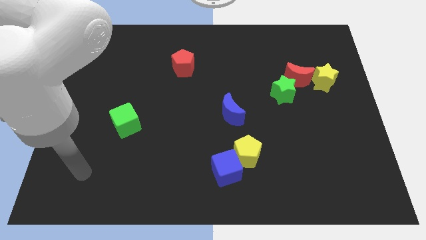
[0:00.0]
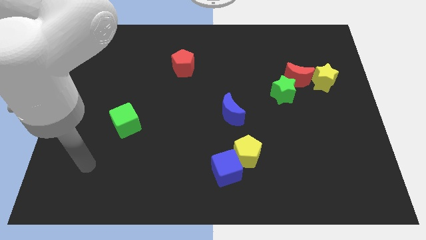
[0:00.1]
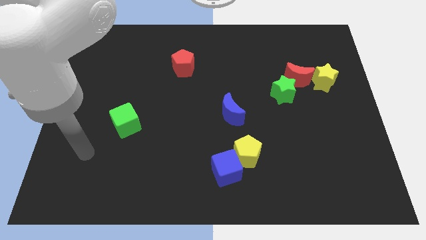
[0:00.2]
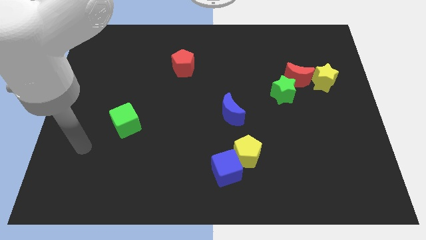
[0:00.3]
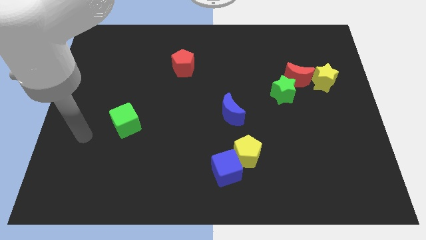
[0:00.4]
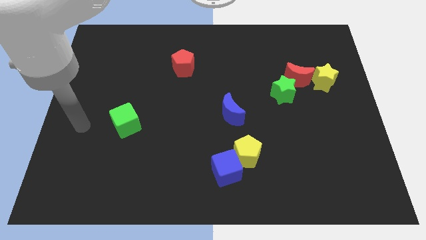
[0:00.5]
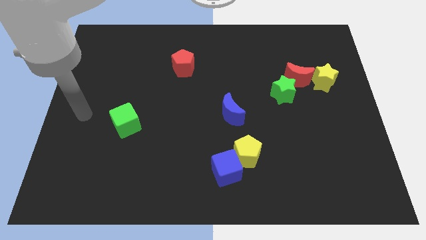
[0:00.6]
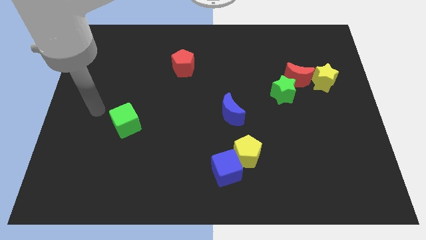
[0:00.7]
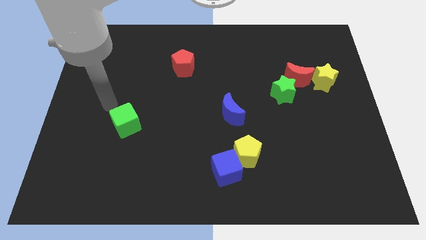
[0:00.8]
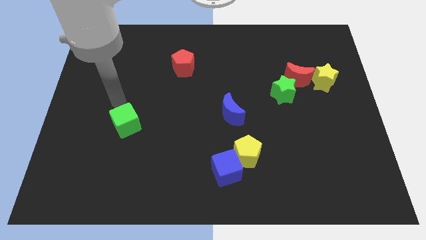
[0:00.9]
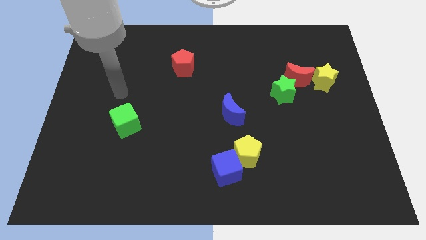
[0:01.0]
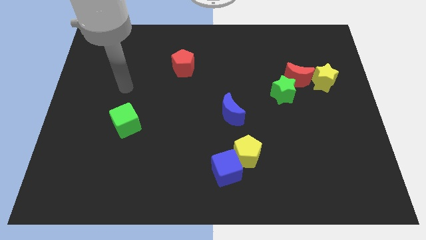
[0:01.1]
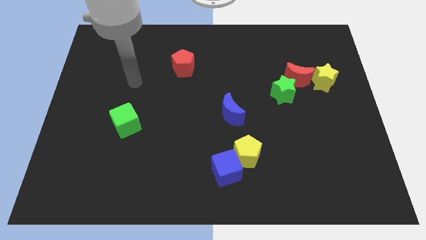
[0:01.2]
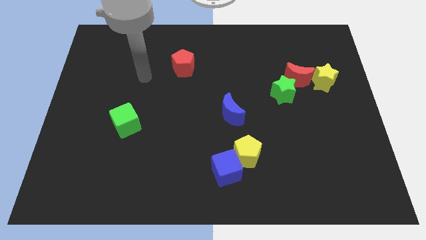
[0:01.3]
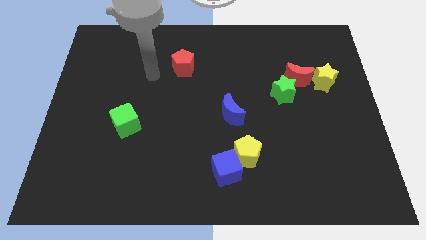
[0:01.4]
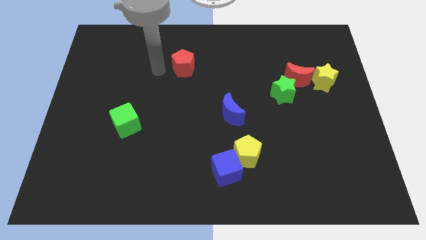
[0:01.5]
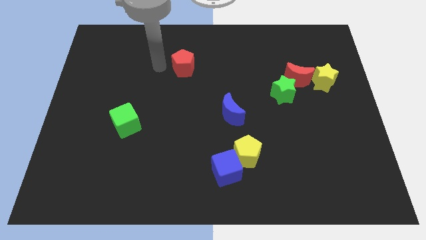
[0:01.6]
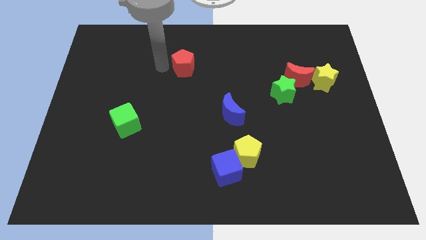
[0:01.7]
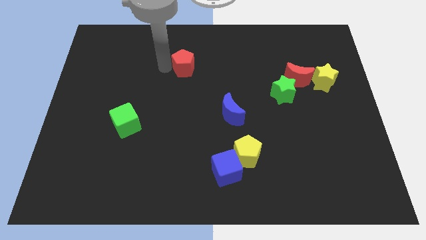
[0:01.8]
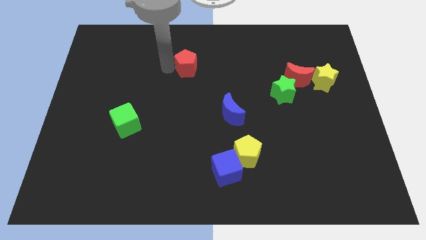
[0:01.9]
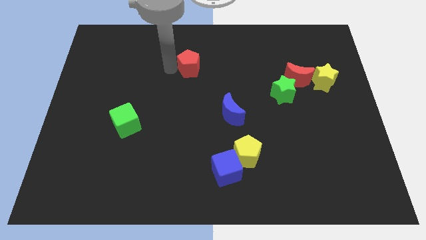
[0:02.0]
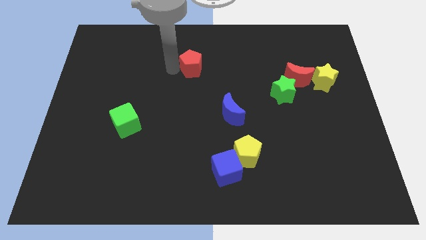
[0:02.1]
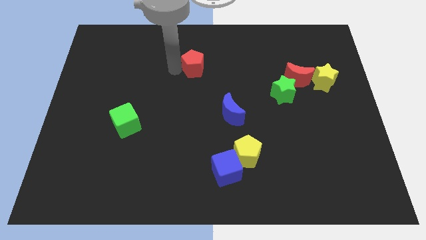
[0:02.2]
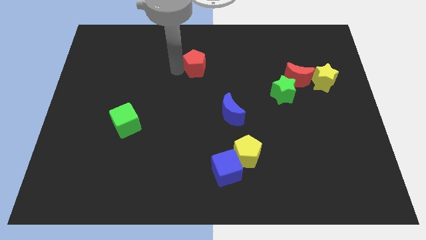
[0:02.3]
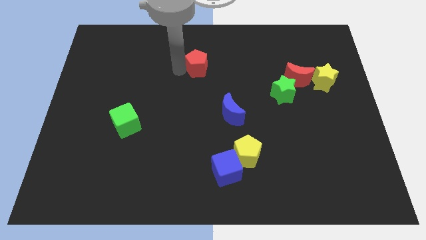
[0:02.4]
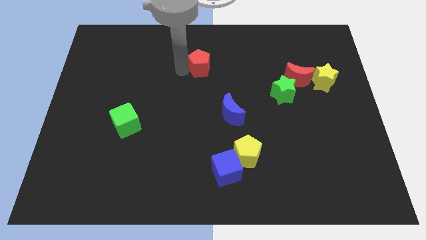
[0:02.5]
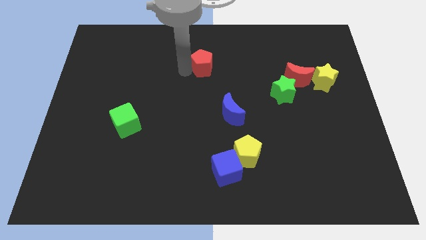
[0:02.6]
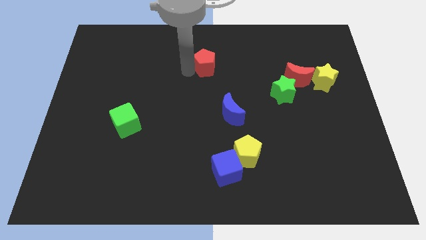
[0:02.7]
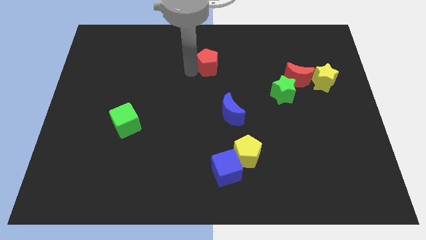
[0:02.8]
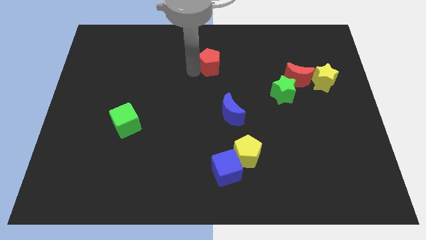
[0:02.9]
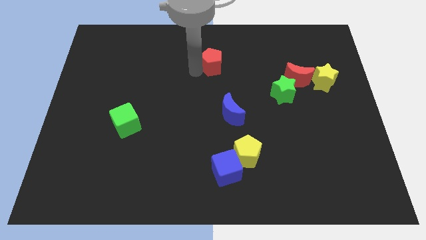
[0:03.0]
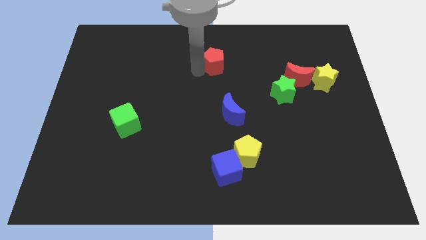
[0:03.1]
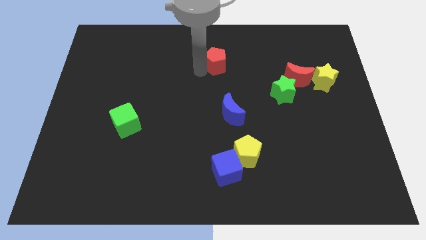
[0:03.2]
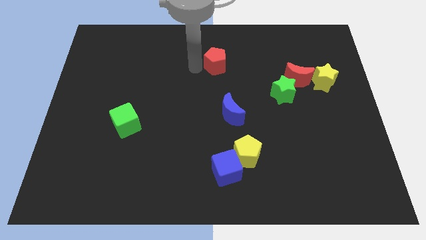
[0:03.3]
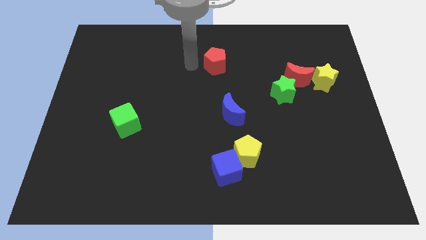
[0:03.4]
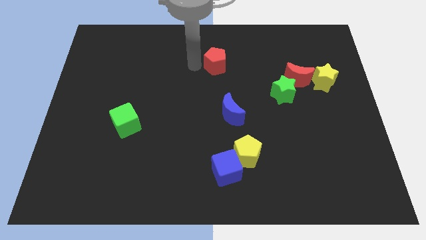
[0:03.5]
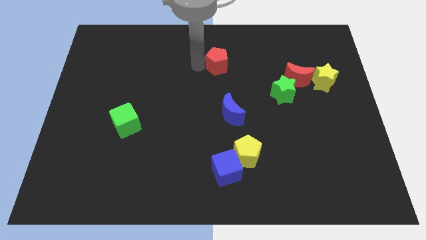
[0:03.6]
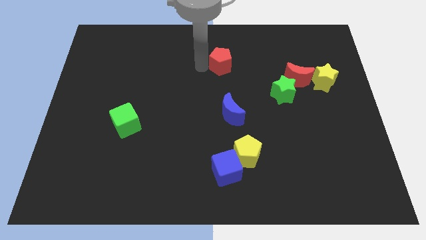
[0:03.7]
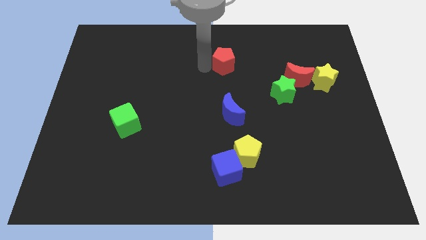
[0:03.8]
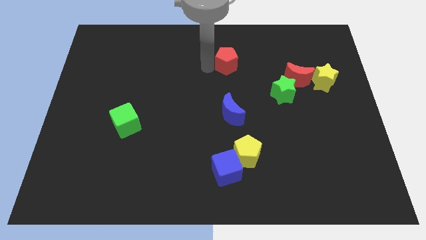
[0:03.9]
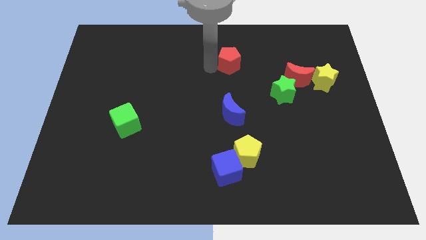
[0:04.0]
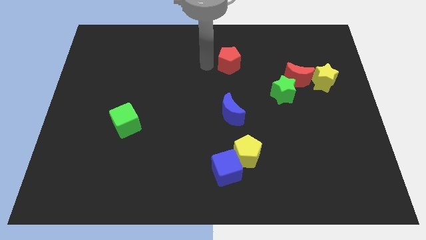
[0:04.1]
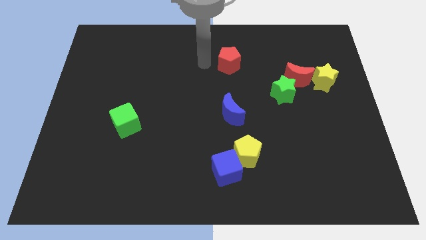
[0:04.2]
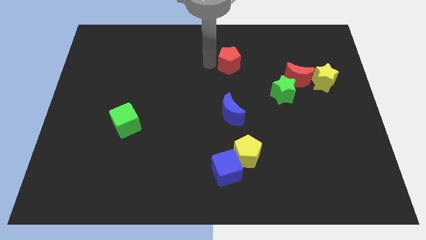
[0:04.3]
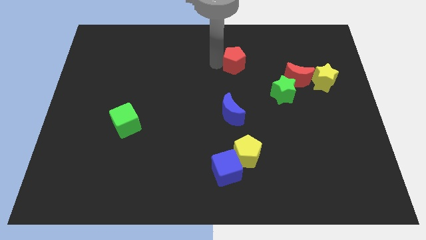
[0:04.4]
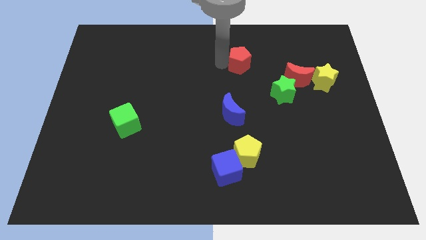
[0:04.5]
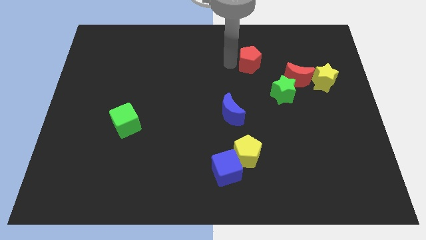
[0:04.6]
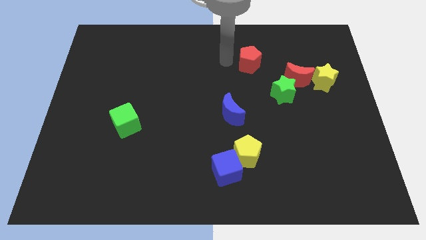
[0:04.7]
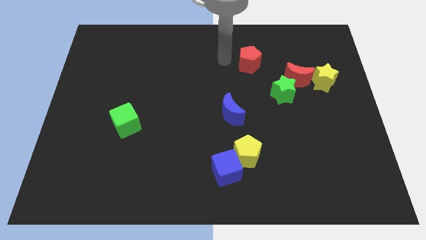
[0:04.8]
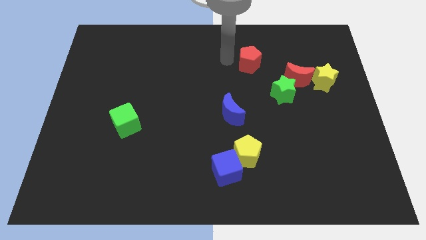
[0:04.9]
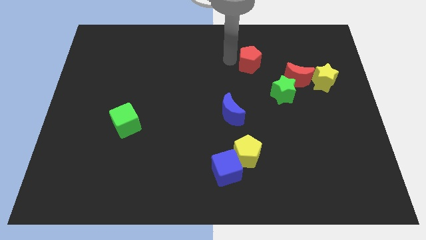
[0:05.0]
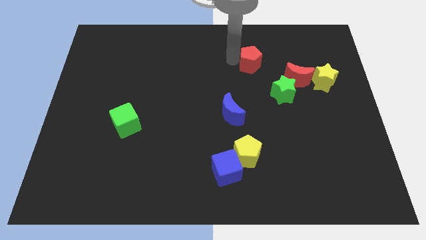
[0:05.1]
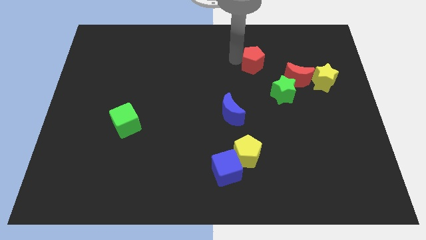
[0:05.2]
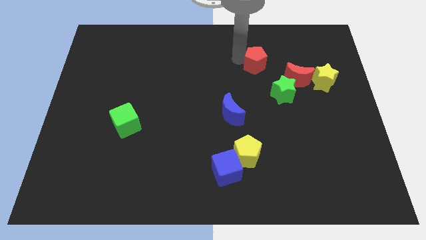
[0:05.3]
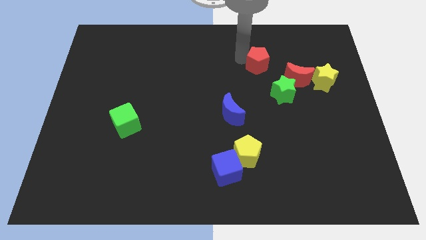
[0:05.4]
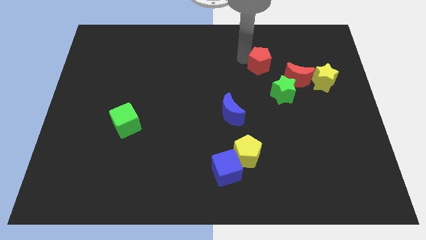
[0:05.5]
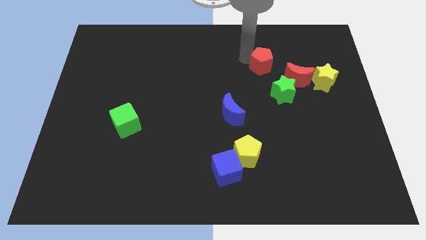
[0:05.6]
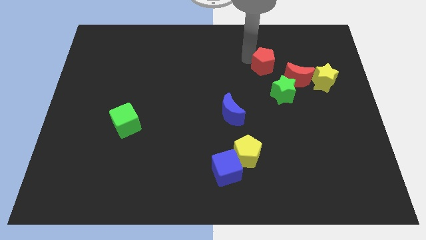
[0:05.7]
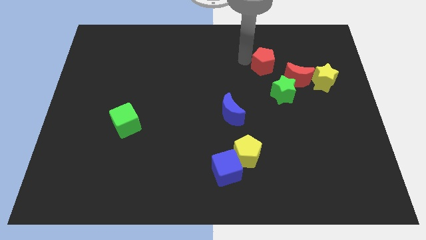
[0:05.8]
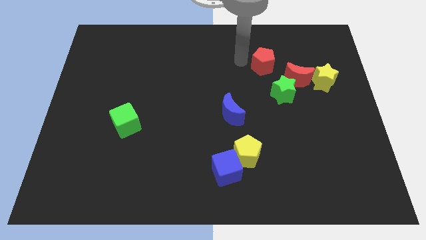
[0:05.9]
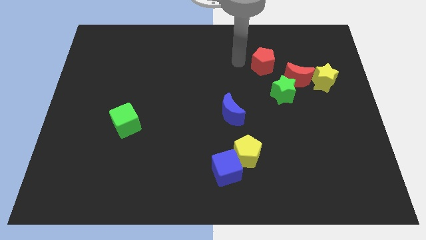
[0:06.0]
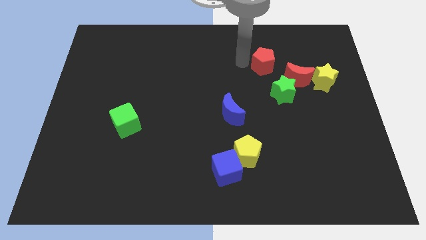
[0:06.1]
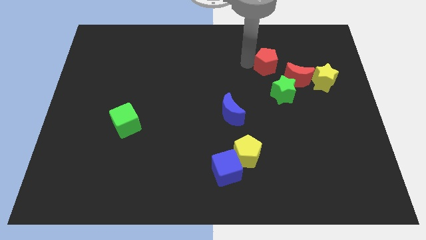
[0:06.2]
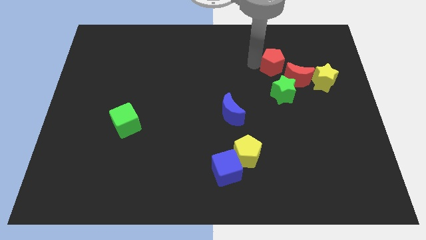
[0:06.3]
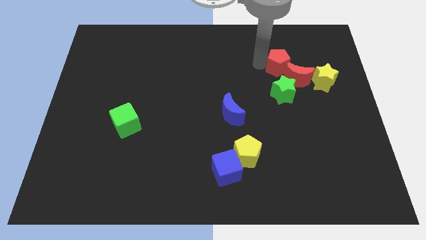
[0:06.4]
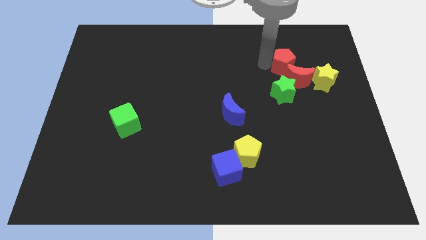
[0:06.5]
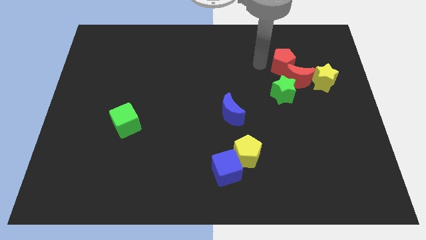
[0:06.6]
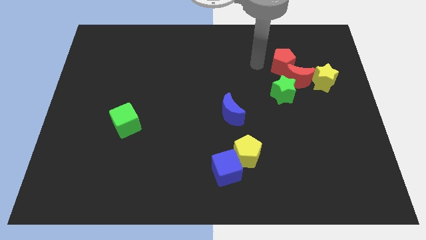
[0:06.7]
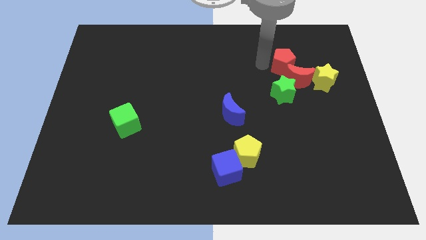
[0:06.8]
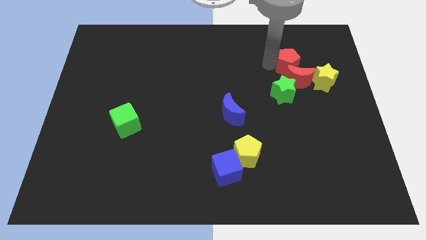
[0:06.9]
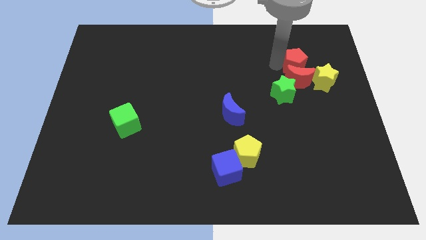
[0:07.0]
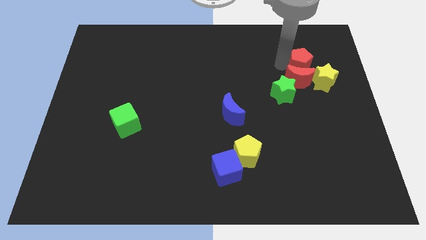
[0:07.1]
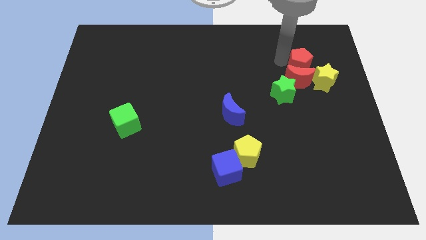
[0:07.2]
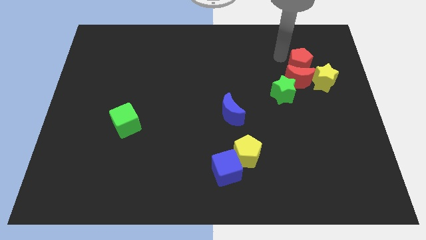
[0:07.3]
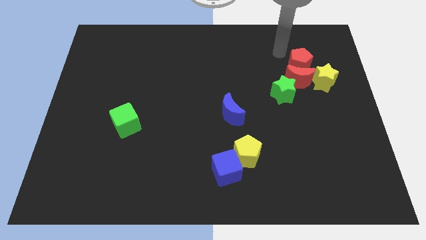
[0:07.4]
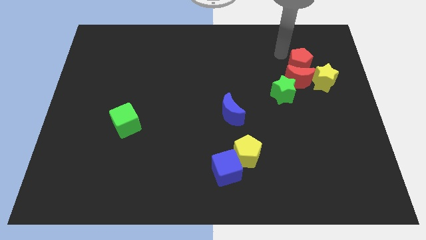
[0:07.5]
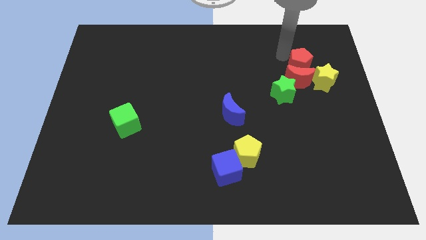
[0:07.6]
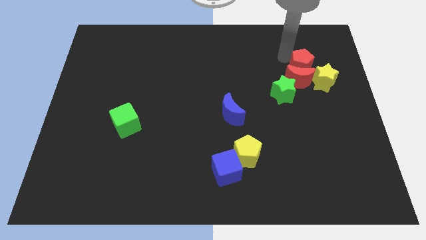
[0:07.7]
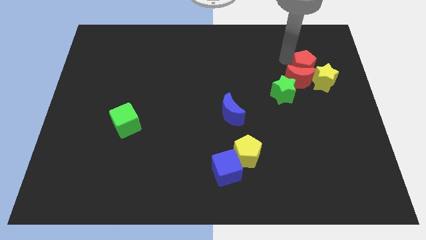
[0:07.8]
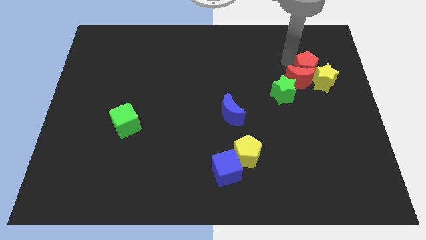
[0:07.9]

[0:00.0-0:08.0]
move the red pentagon close to the yellow star
